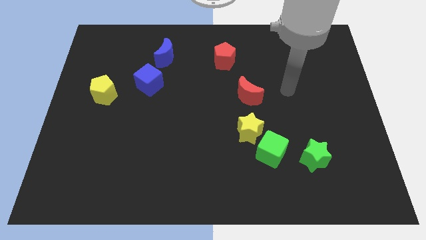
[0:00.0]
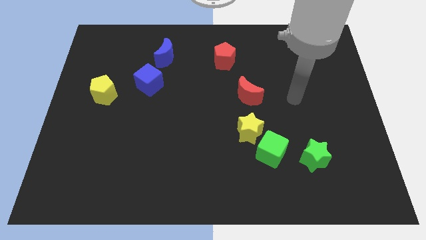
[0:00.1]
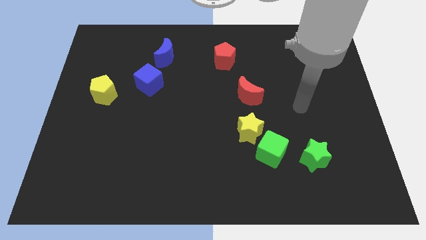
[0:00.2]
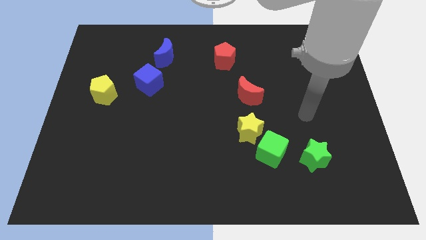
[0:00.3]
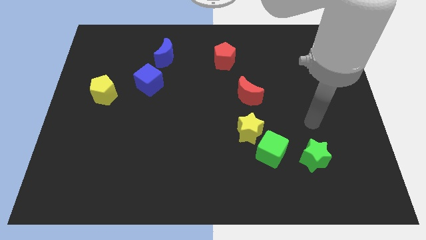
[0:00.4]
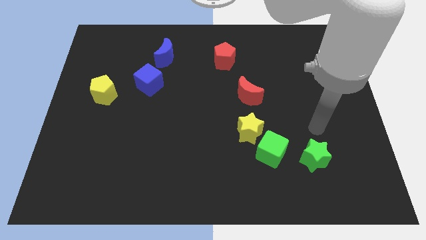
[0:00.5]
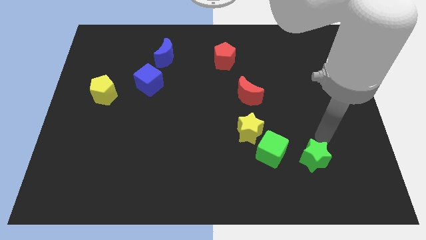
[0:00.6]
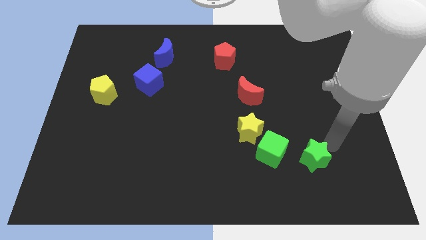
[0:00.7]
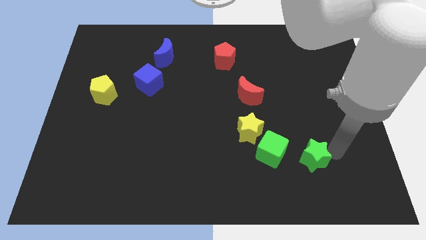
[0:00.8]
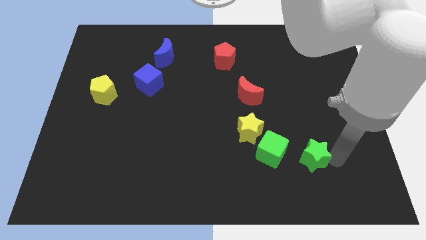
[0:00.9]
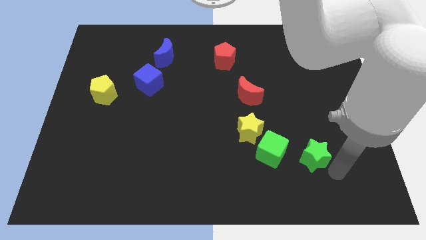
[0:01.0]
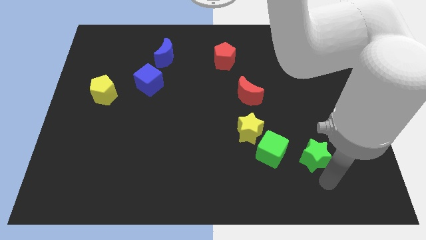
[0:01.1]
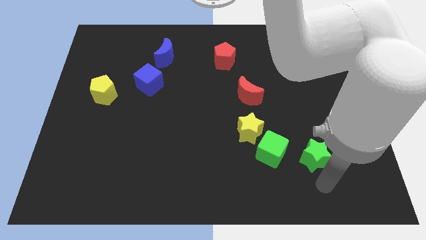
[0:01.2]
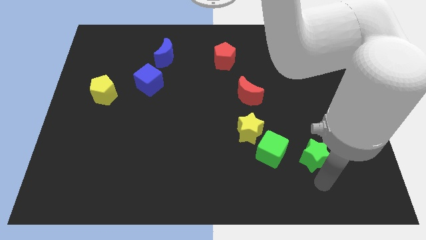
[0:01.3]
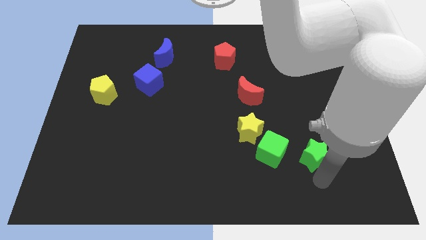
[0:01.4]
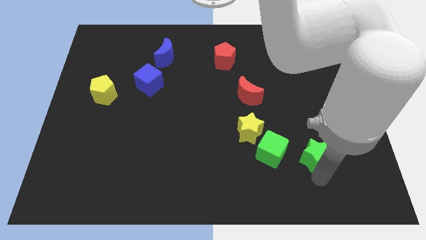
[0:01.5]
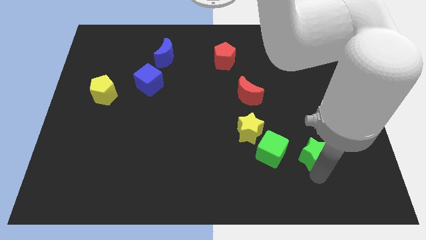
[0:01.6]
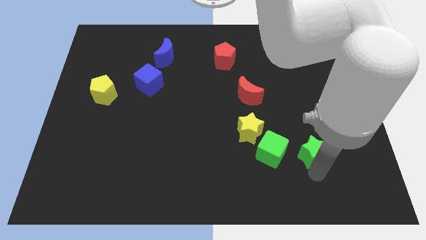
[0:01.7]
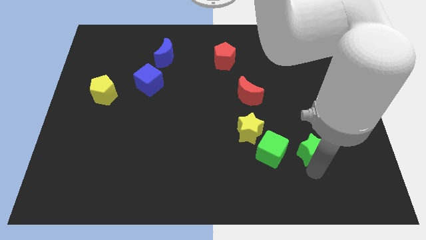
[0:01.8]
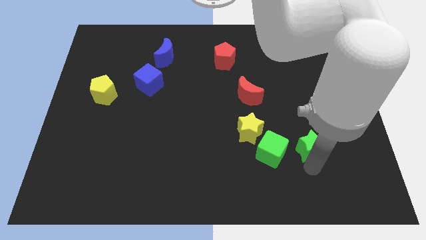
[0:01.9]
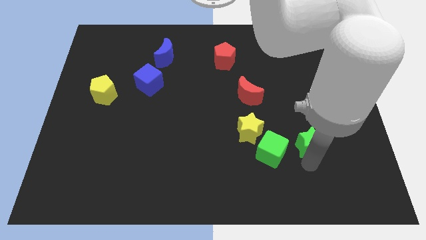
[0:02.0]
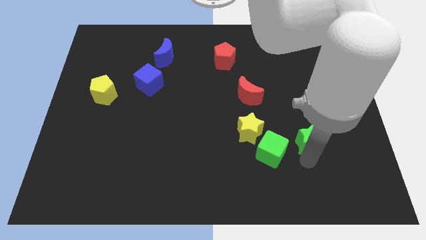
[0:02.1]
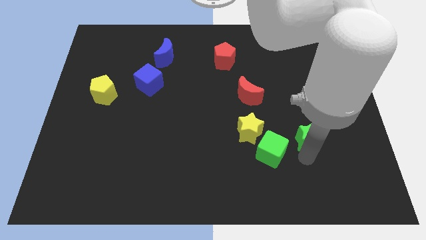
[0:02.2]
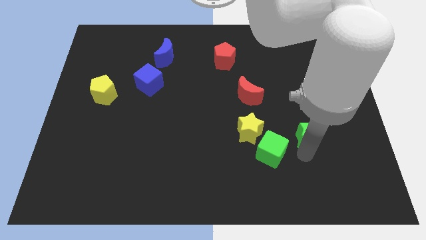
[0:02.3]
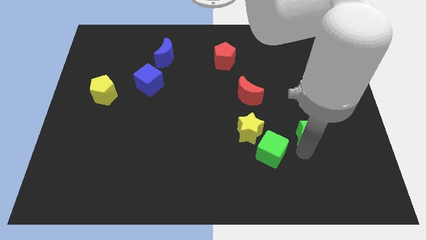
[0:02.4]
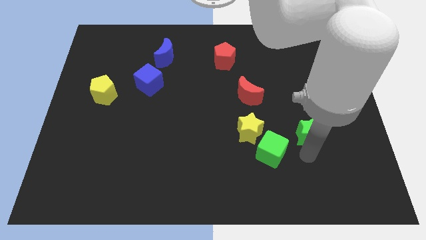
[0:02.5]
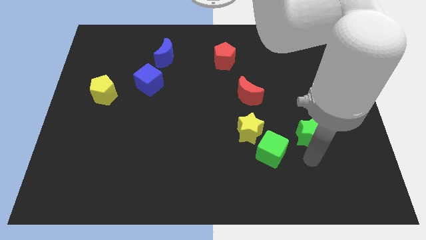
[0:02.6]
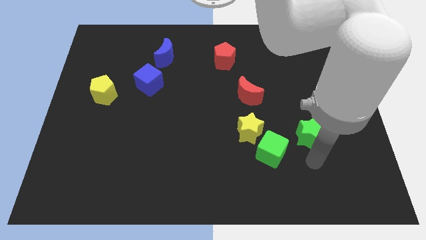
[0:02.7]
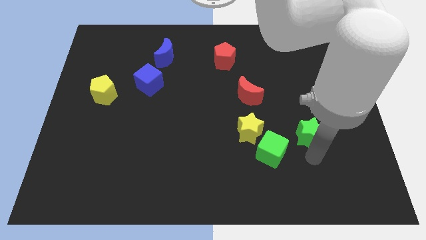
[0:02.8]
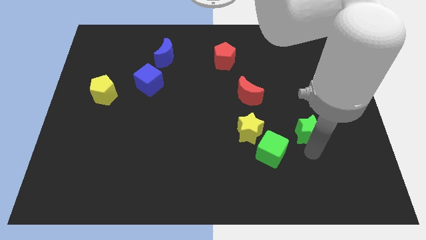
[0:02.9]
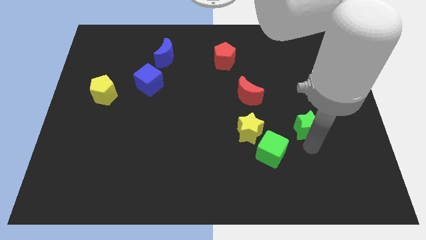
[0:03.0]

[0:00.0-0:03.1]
move the green star up a bit

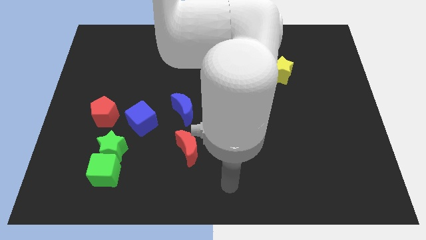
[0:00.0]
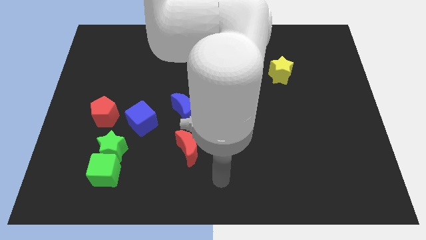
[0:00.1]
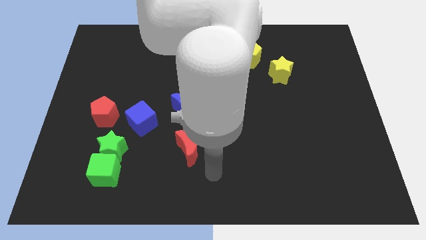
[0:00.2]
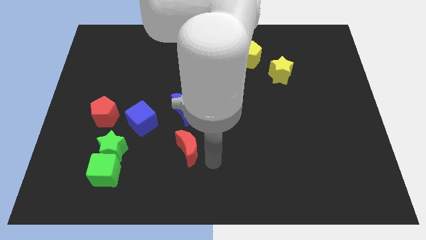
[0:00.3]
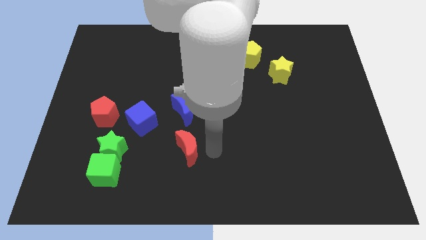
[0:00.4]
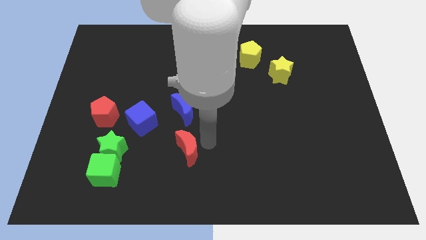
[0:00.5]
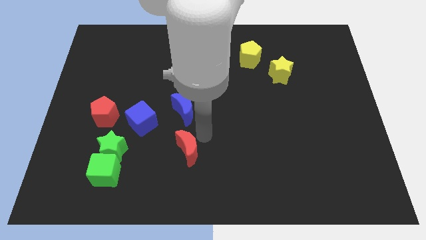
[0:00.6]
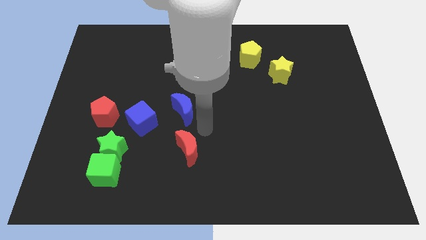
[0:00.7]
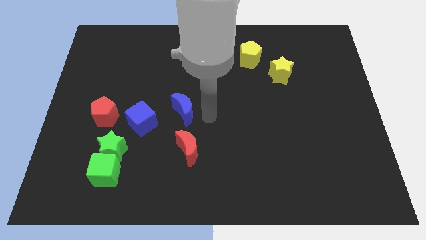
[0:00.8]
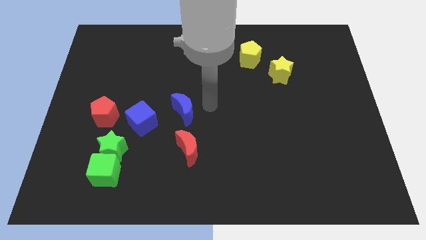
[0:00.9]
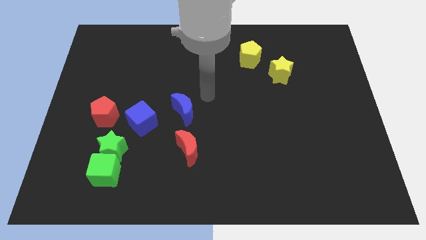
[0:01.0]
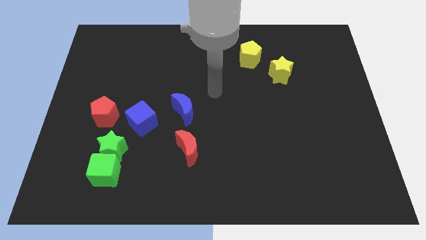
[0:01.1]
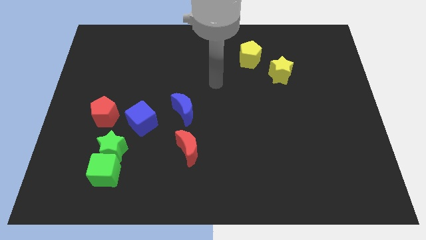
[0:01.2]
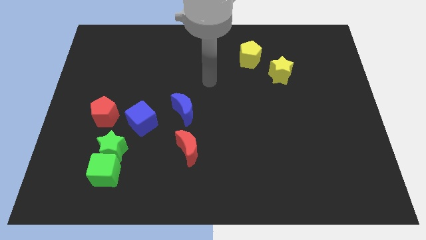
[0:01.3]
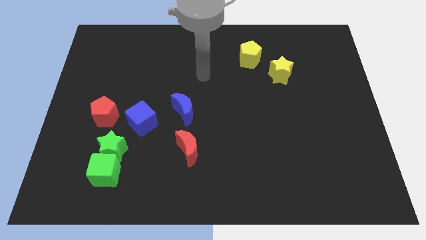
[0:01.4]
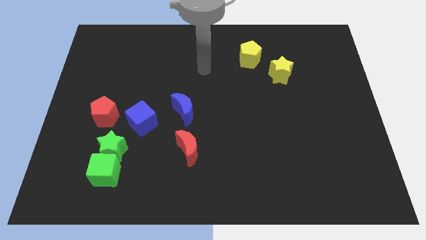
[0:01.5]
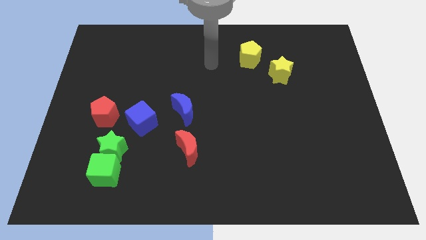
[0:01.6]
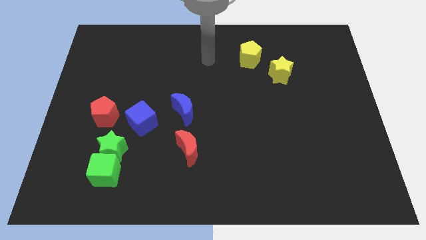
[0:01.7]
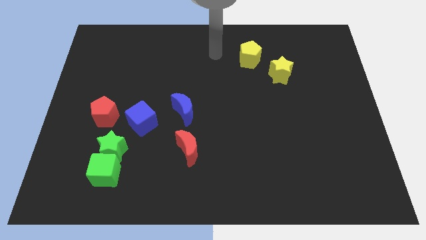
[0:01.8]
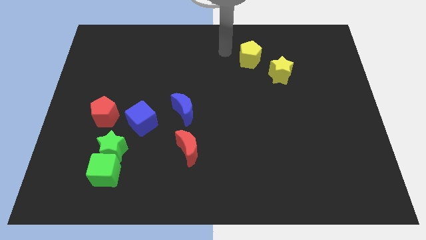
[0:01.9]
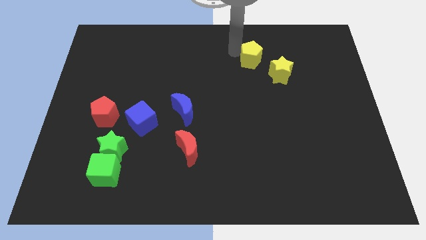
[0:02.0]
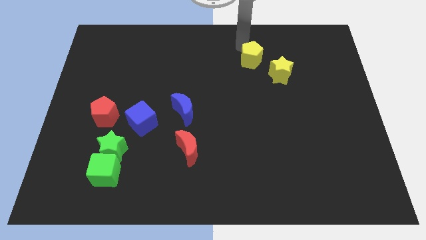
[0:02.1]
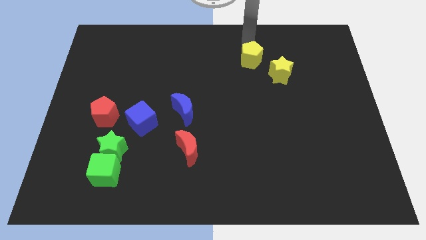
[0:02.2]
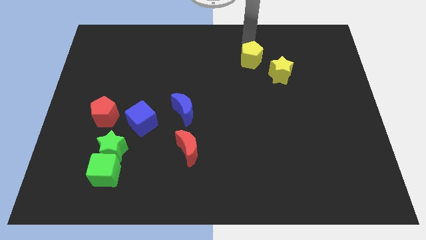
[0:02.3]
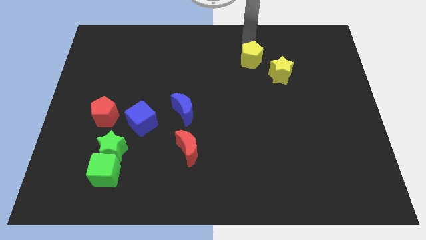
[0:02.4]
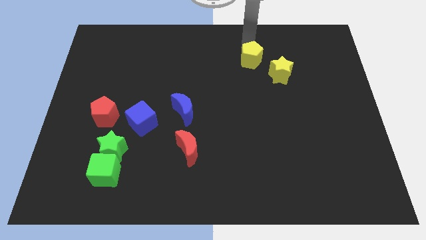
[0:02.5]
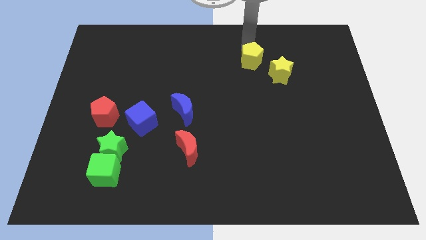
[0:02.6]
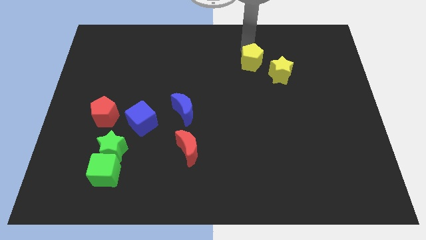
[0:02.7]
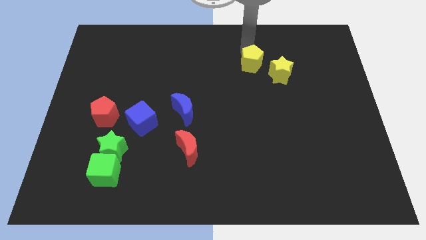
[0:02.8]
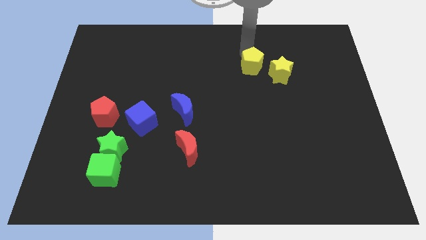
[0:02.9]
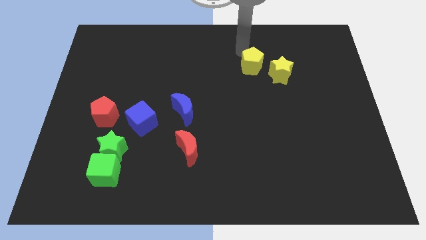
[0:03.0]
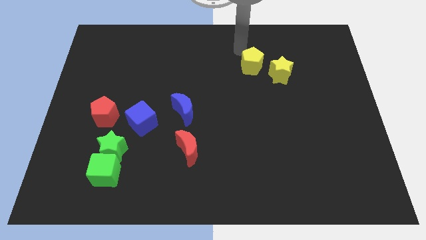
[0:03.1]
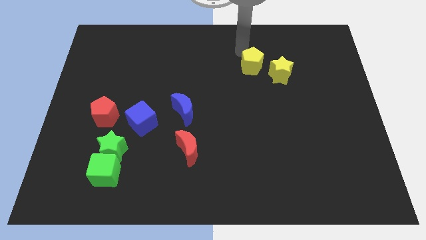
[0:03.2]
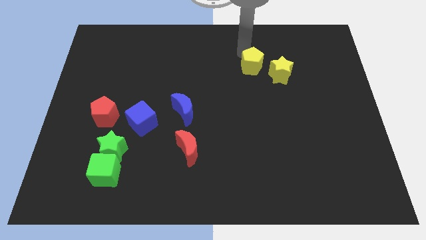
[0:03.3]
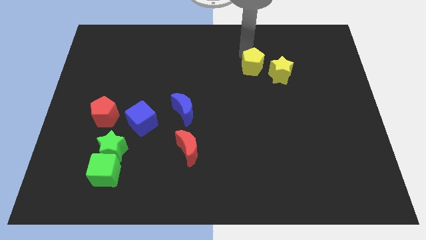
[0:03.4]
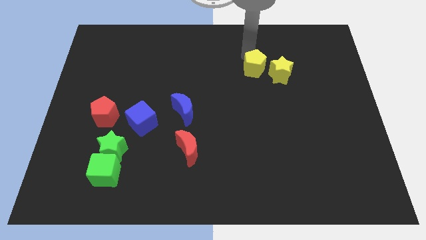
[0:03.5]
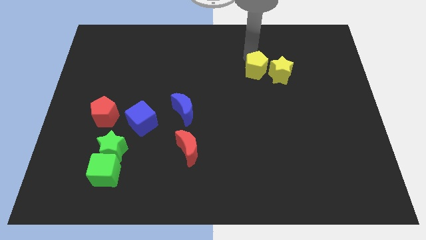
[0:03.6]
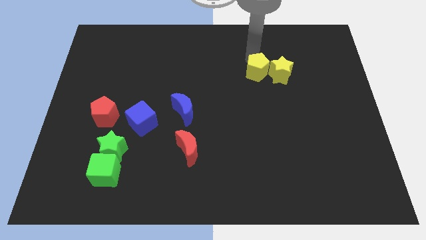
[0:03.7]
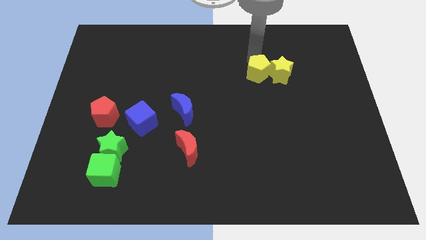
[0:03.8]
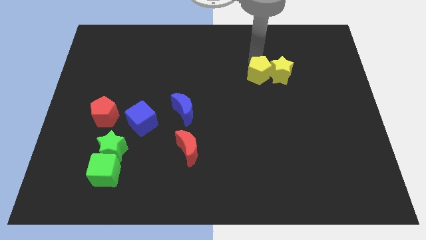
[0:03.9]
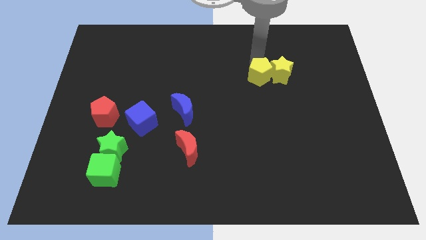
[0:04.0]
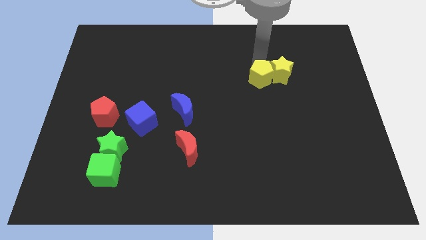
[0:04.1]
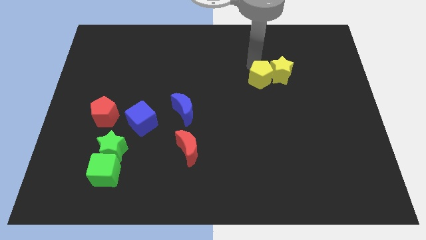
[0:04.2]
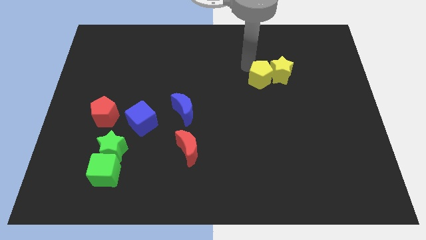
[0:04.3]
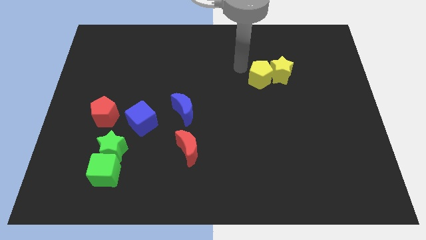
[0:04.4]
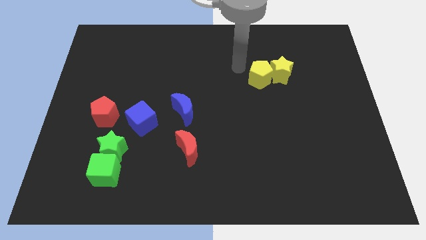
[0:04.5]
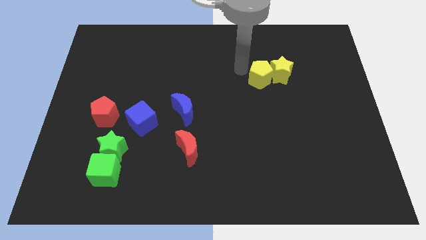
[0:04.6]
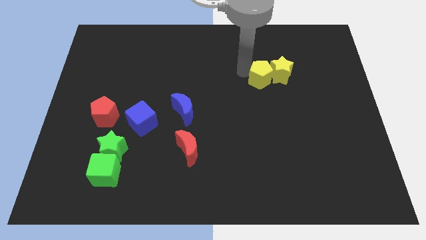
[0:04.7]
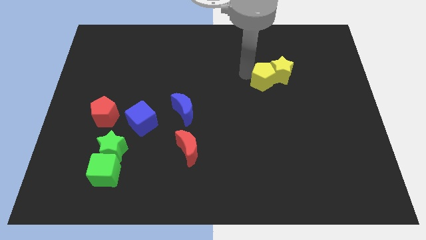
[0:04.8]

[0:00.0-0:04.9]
slide the yellow pentagon downwards and right somewhat
